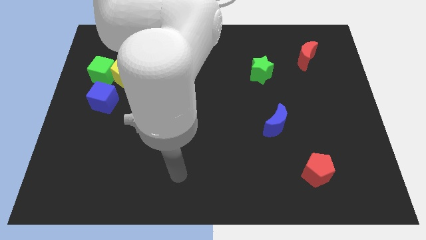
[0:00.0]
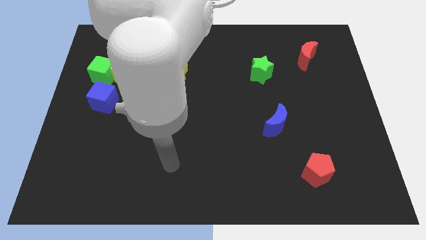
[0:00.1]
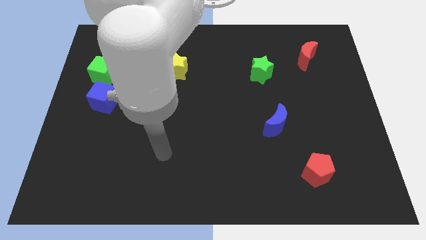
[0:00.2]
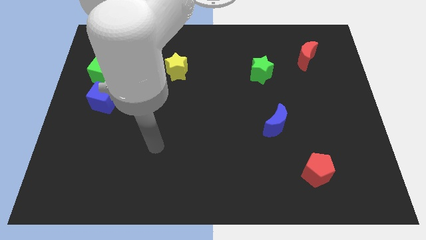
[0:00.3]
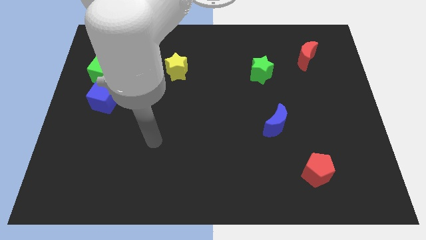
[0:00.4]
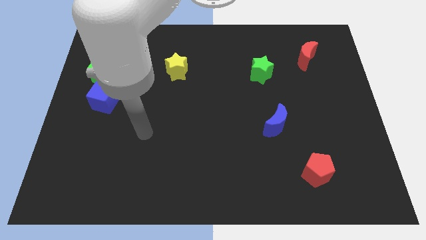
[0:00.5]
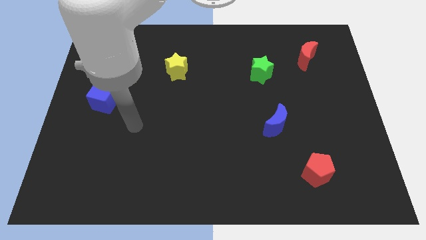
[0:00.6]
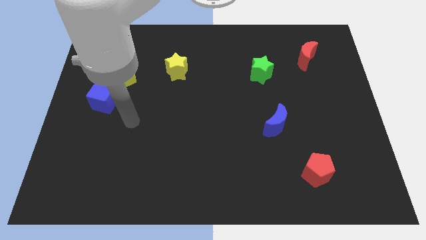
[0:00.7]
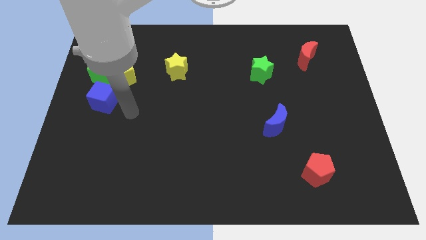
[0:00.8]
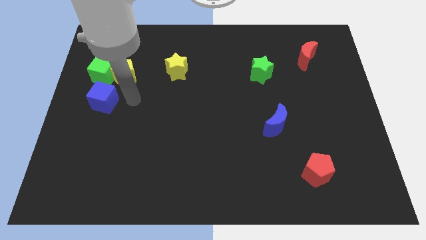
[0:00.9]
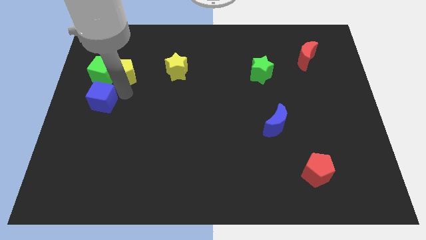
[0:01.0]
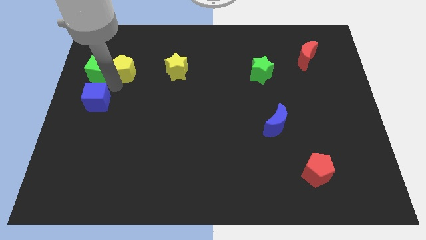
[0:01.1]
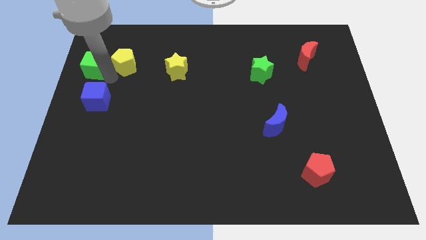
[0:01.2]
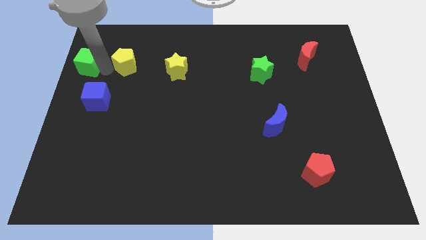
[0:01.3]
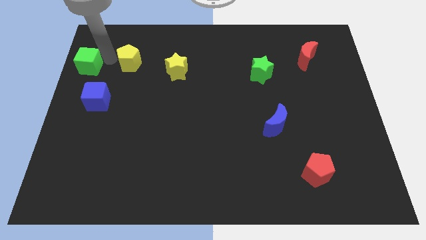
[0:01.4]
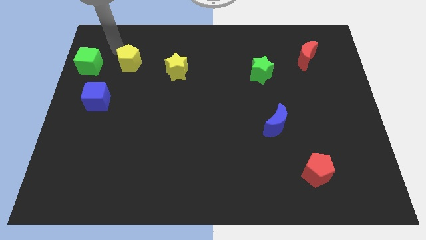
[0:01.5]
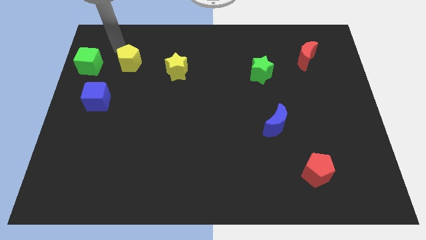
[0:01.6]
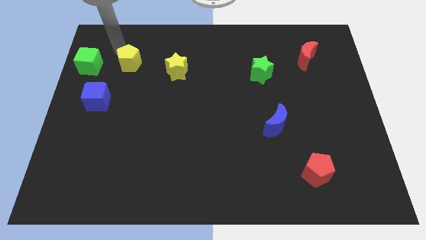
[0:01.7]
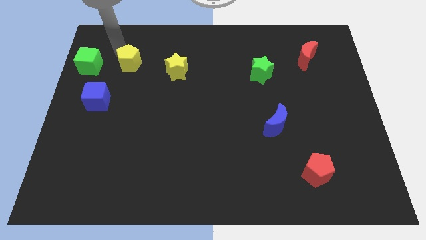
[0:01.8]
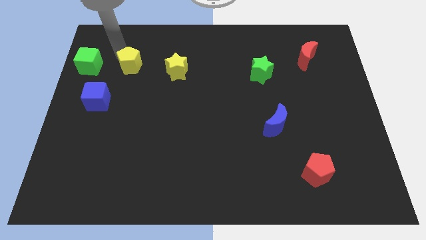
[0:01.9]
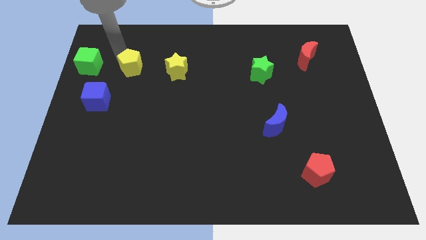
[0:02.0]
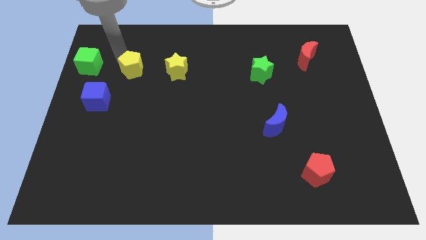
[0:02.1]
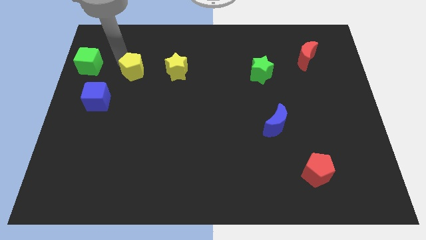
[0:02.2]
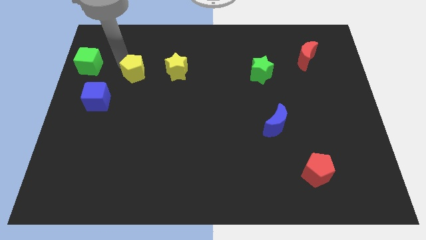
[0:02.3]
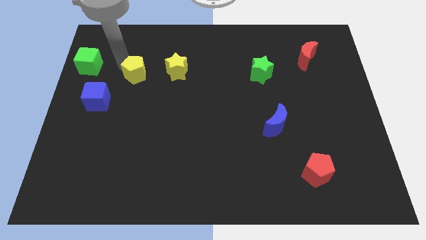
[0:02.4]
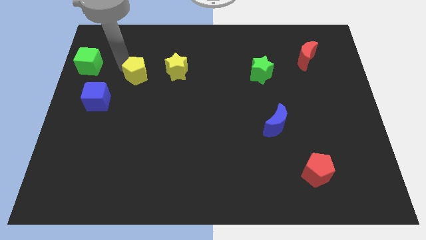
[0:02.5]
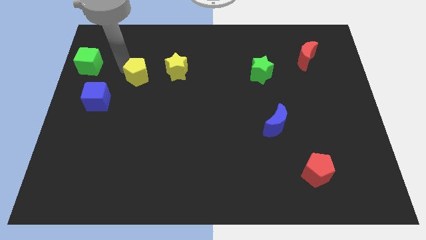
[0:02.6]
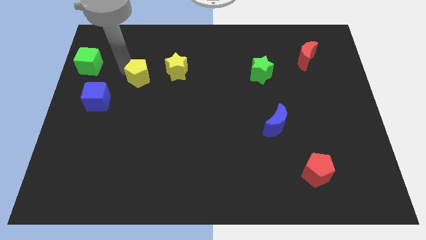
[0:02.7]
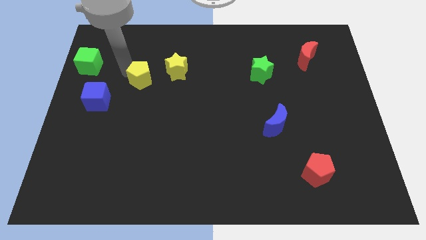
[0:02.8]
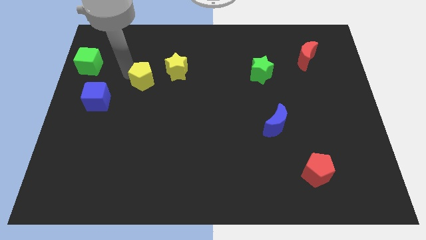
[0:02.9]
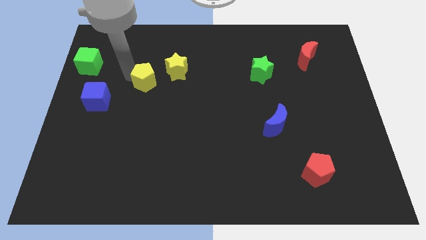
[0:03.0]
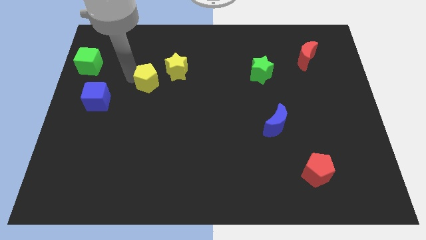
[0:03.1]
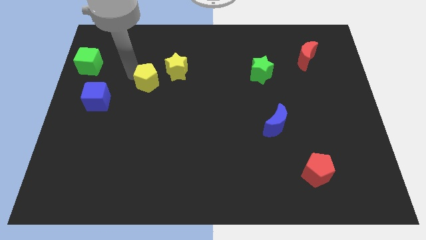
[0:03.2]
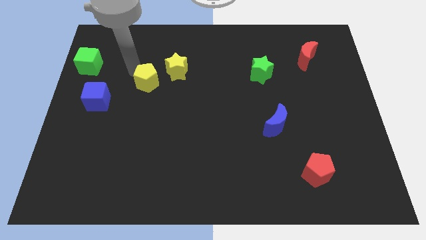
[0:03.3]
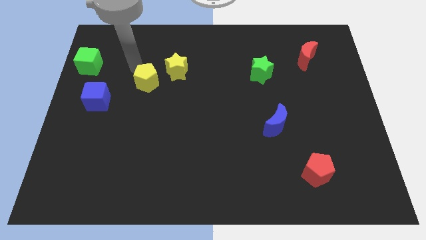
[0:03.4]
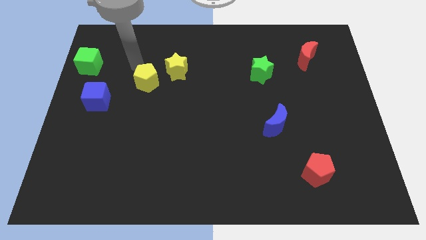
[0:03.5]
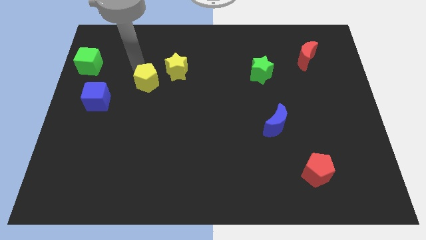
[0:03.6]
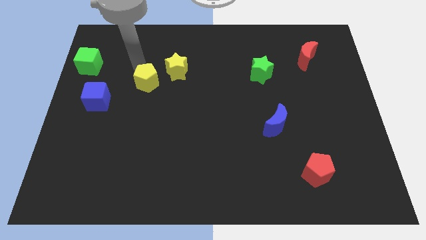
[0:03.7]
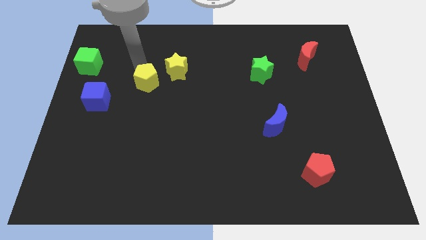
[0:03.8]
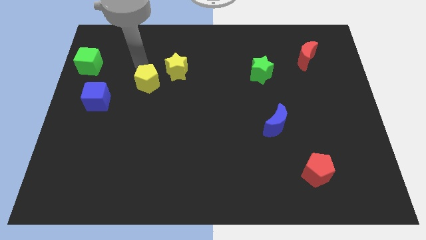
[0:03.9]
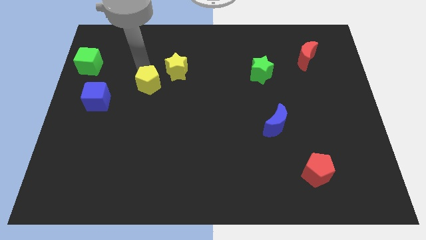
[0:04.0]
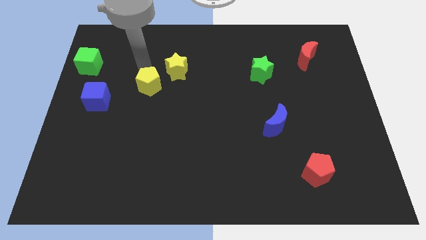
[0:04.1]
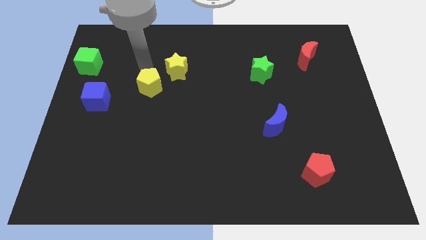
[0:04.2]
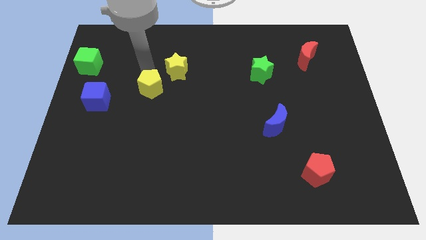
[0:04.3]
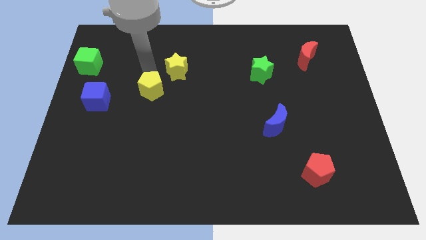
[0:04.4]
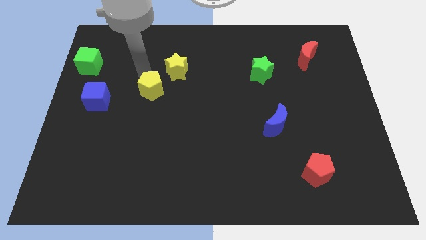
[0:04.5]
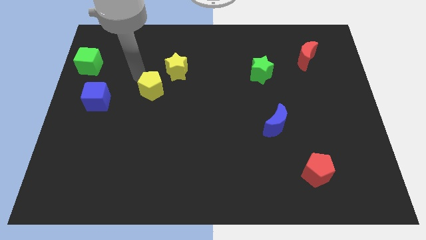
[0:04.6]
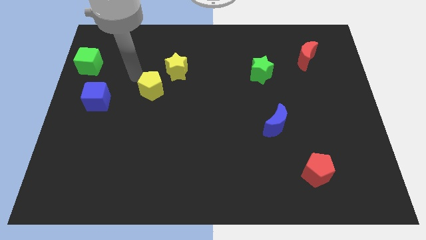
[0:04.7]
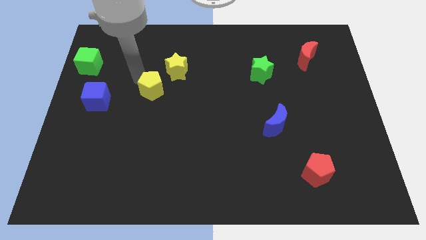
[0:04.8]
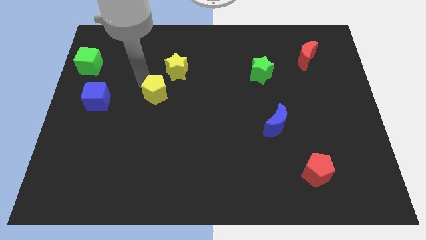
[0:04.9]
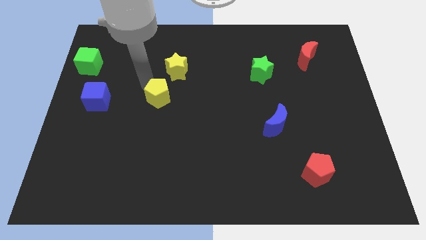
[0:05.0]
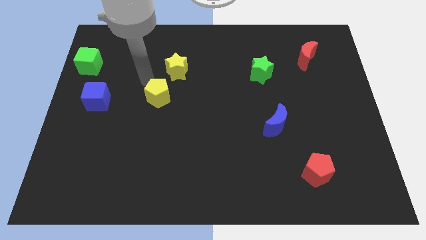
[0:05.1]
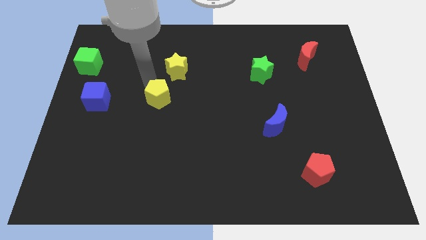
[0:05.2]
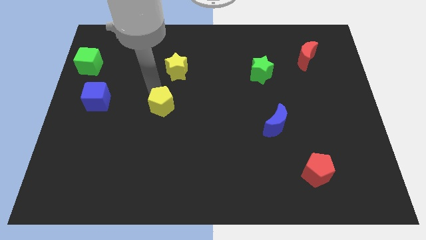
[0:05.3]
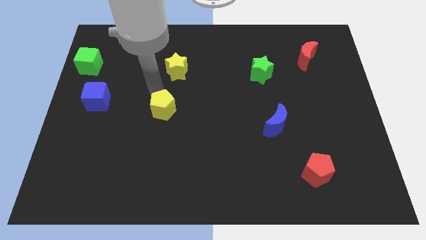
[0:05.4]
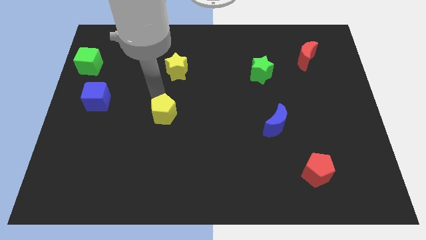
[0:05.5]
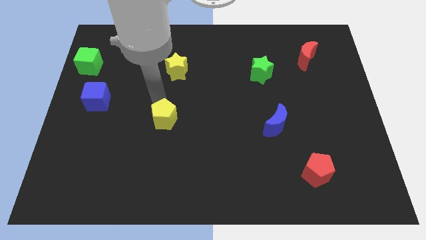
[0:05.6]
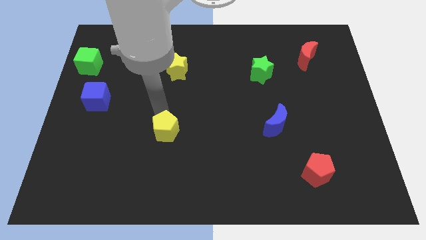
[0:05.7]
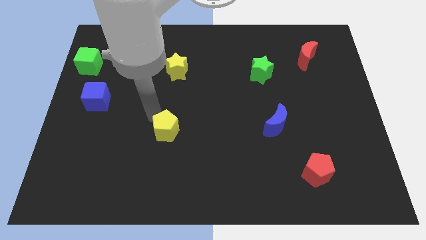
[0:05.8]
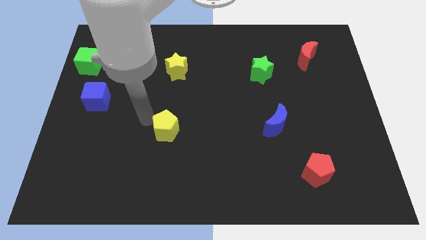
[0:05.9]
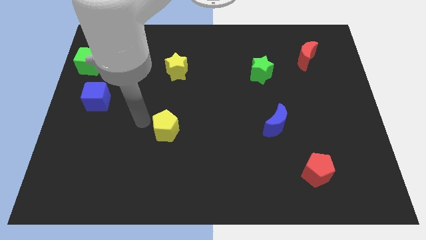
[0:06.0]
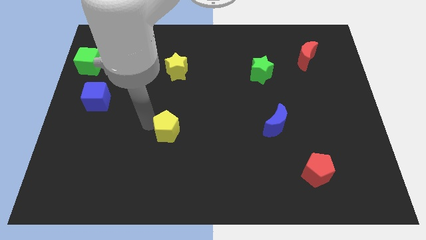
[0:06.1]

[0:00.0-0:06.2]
push the yellow pentagon diagonally downwards and to the right

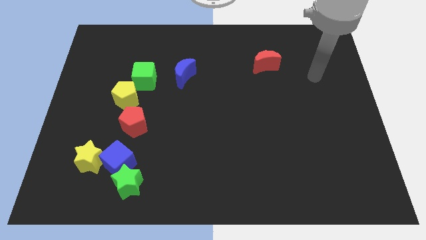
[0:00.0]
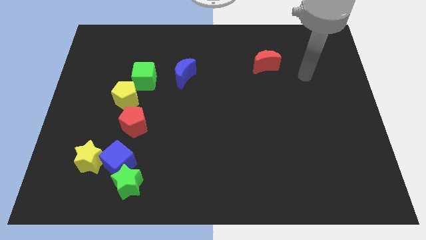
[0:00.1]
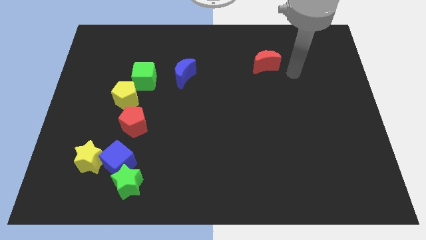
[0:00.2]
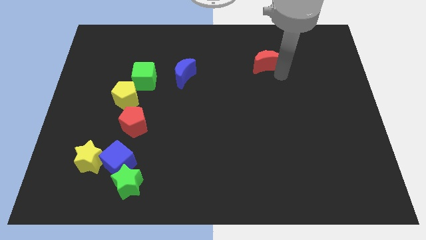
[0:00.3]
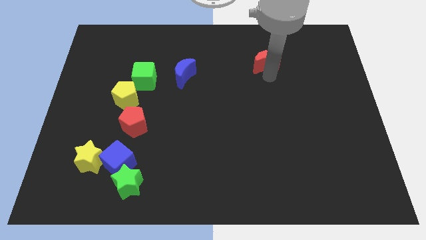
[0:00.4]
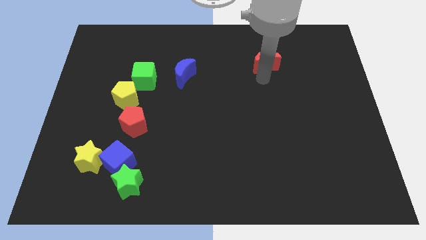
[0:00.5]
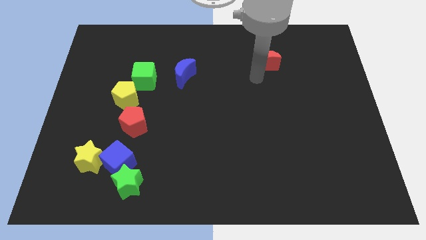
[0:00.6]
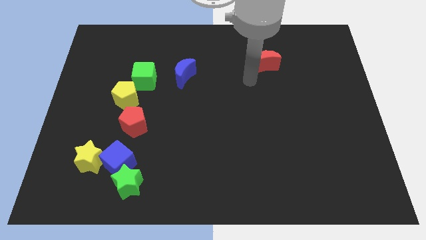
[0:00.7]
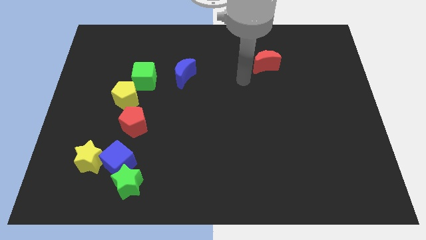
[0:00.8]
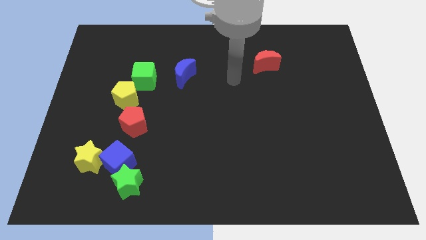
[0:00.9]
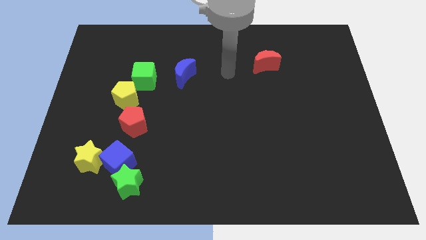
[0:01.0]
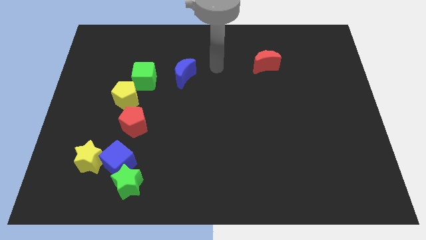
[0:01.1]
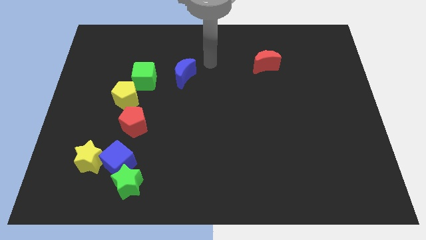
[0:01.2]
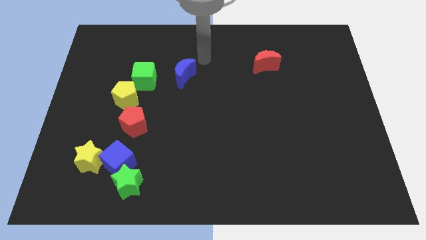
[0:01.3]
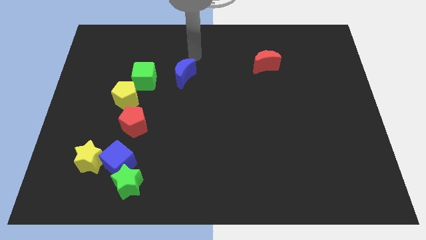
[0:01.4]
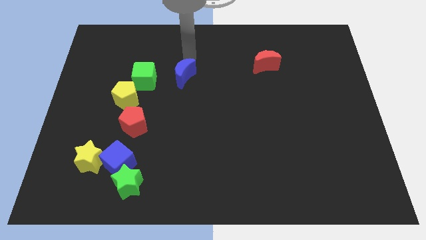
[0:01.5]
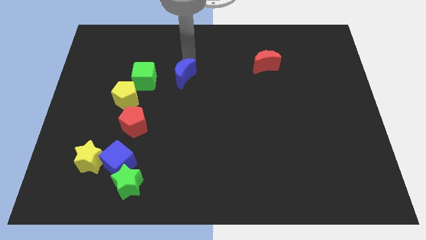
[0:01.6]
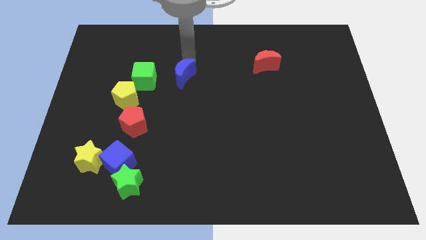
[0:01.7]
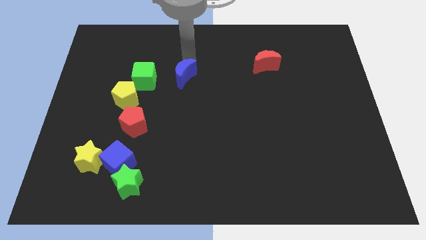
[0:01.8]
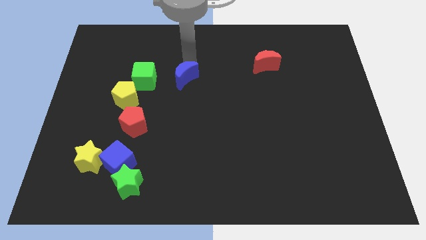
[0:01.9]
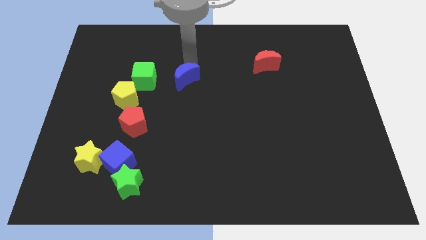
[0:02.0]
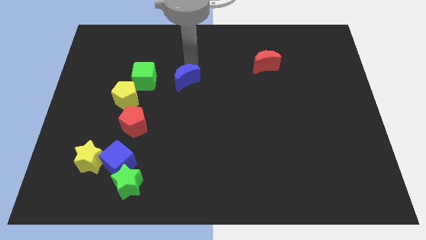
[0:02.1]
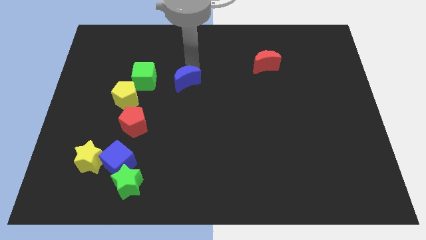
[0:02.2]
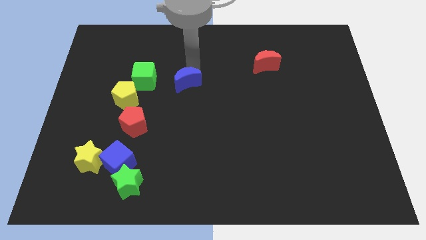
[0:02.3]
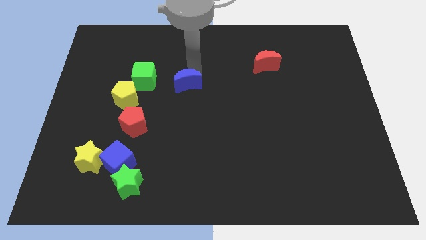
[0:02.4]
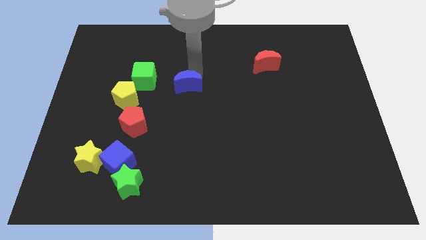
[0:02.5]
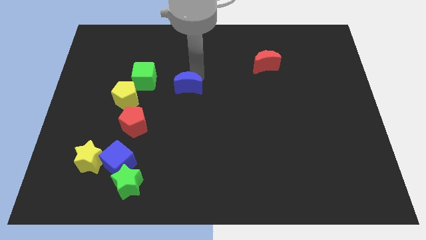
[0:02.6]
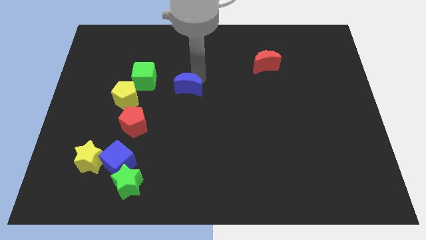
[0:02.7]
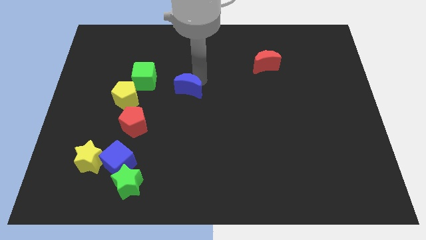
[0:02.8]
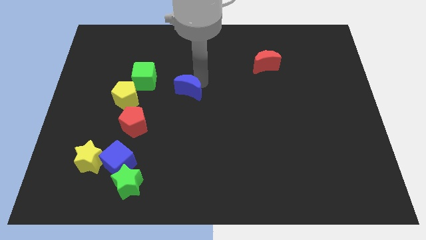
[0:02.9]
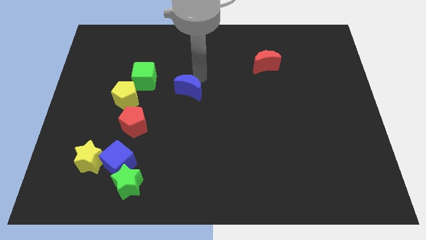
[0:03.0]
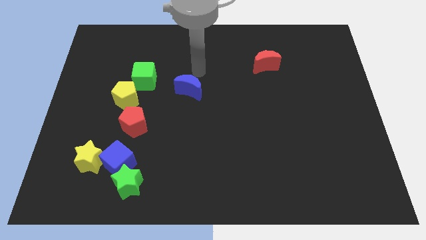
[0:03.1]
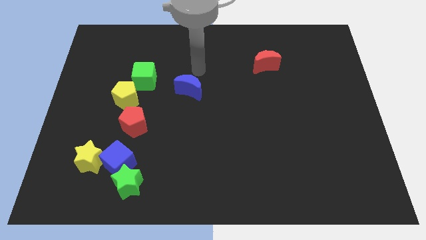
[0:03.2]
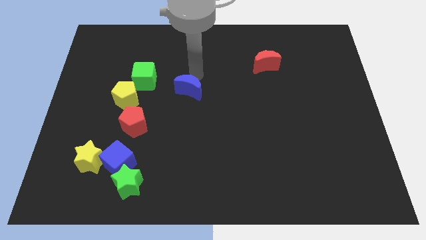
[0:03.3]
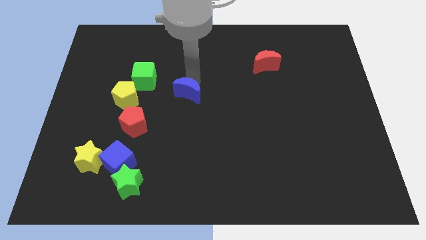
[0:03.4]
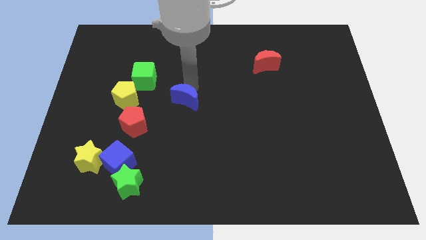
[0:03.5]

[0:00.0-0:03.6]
push the blue moon slightly down
